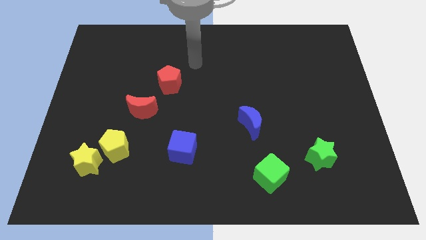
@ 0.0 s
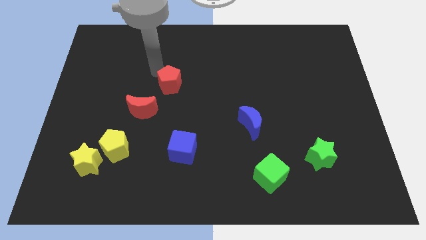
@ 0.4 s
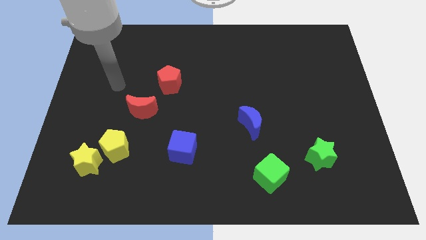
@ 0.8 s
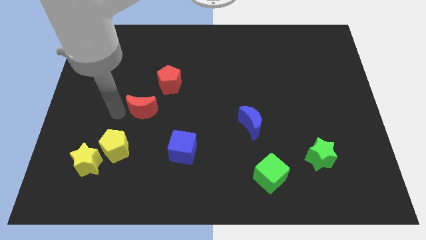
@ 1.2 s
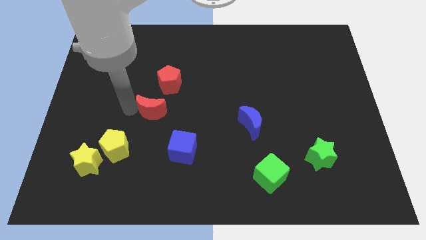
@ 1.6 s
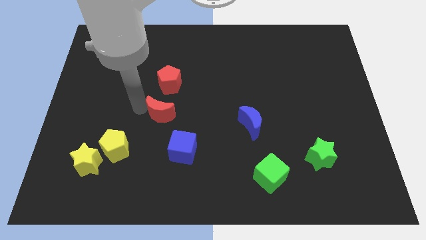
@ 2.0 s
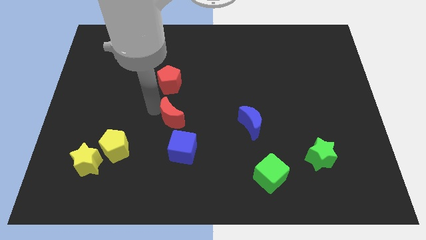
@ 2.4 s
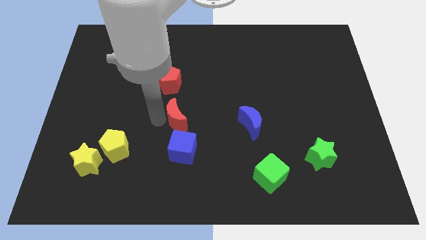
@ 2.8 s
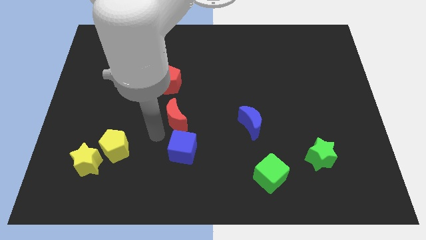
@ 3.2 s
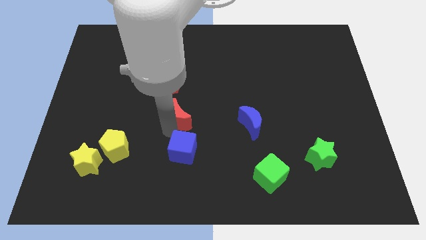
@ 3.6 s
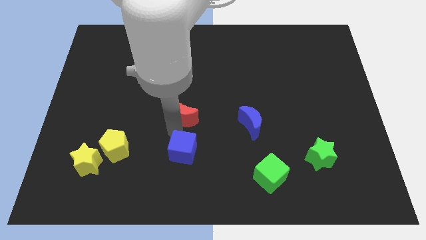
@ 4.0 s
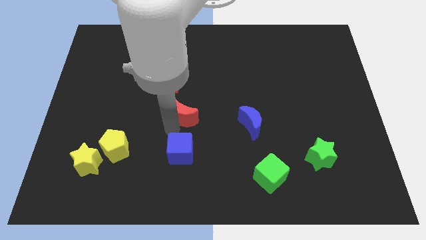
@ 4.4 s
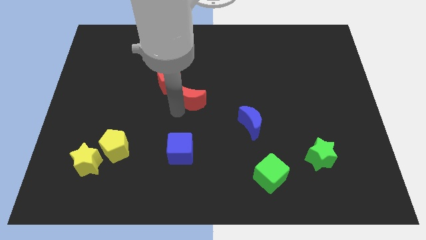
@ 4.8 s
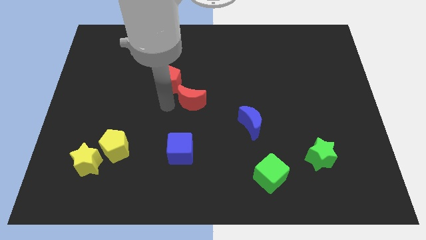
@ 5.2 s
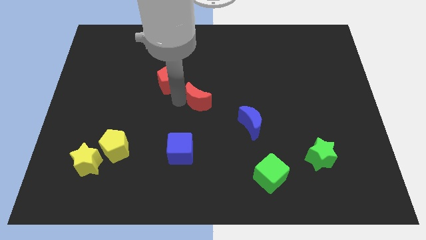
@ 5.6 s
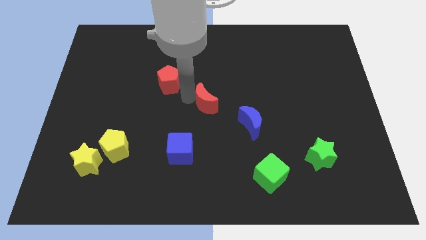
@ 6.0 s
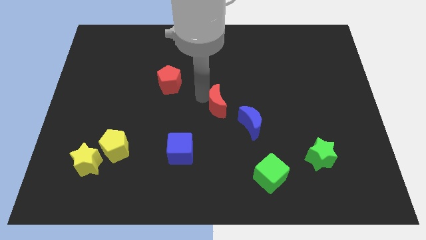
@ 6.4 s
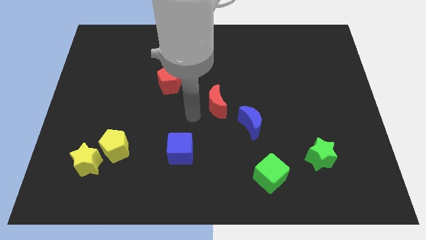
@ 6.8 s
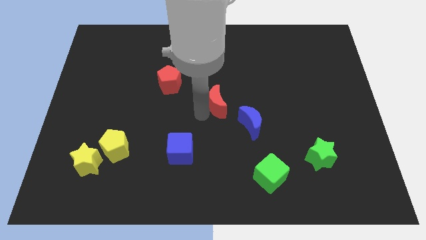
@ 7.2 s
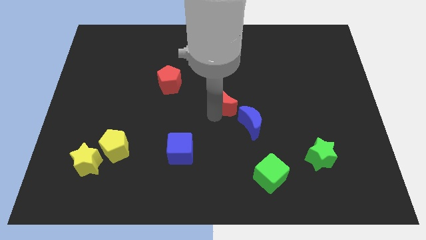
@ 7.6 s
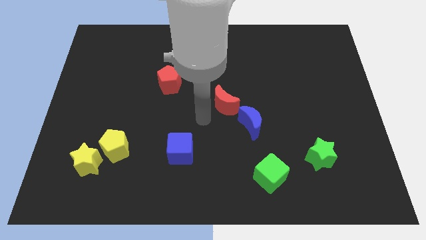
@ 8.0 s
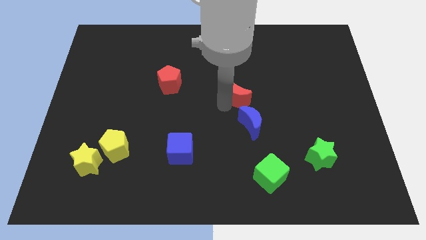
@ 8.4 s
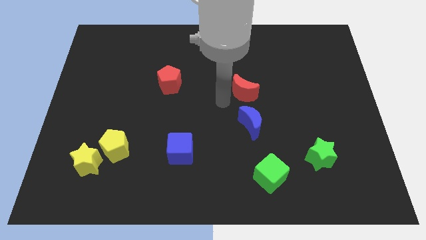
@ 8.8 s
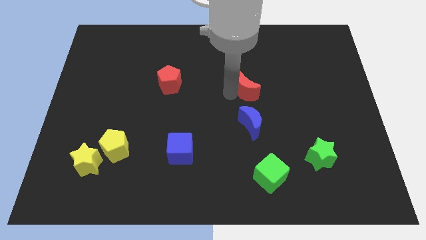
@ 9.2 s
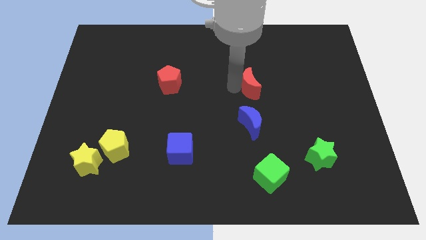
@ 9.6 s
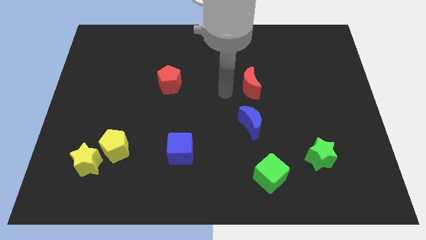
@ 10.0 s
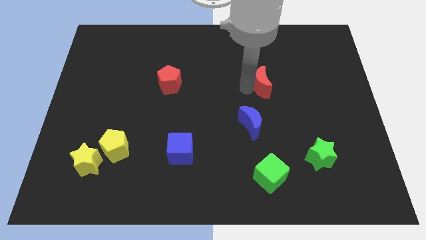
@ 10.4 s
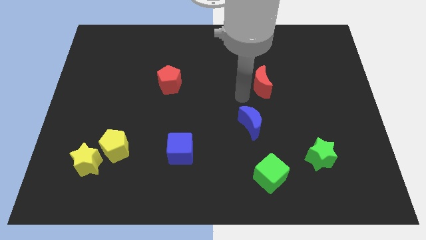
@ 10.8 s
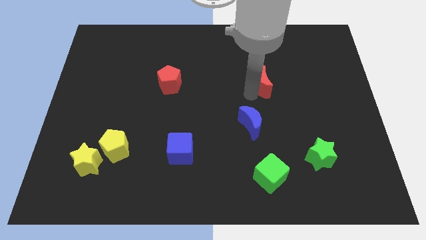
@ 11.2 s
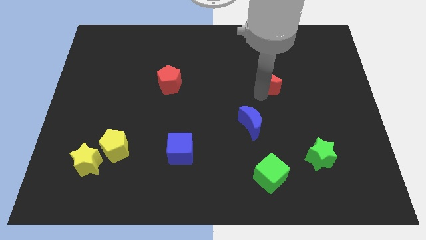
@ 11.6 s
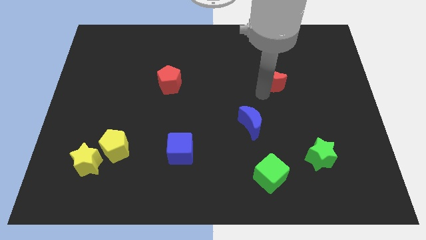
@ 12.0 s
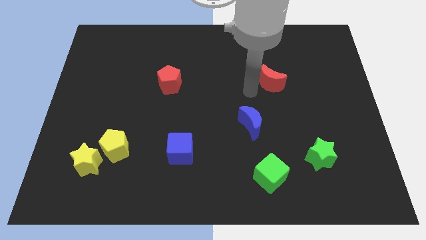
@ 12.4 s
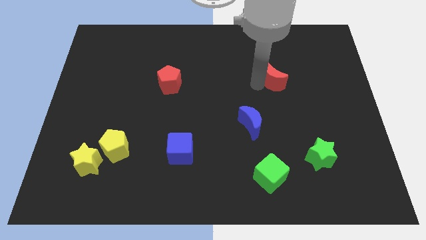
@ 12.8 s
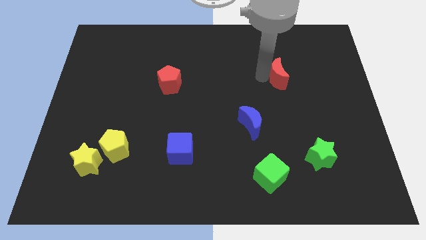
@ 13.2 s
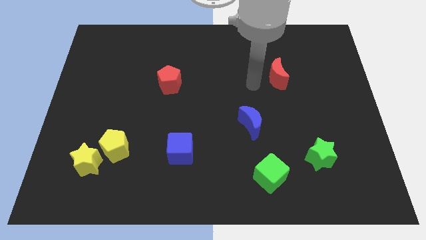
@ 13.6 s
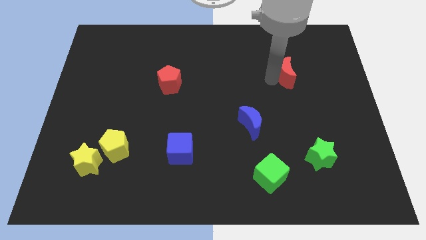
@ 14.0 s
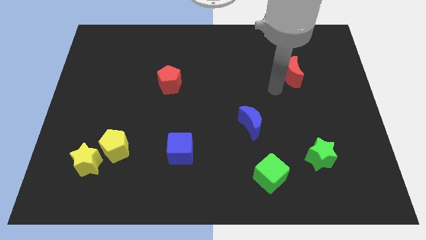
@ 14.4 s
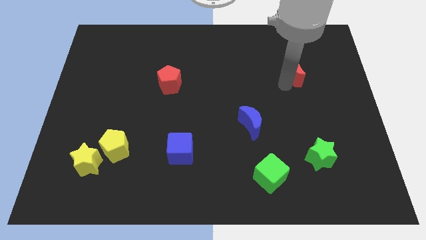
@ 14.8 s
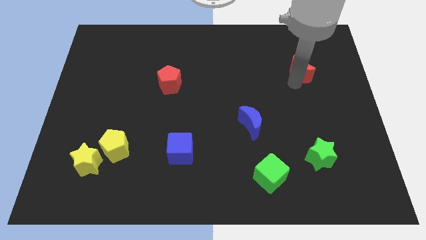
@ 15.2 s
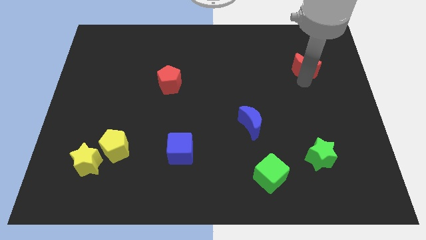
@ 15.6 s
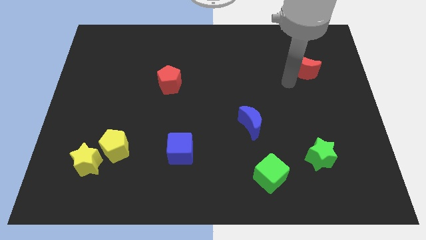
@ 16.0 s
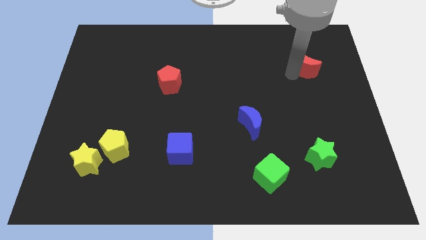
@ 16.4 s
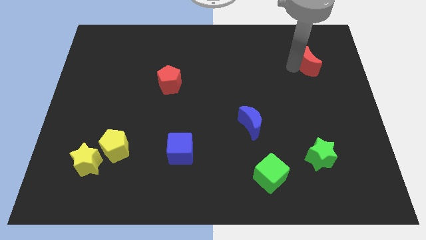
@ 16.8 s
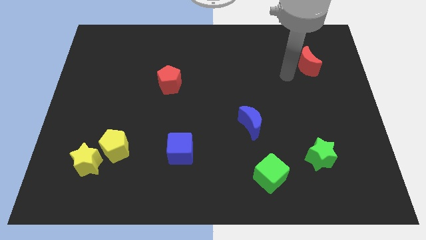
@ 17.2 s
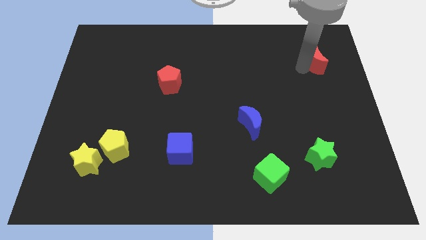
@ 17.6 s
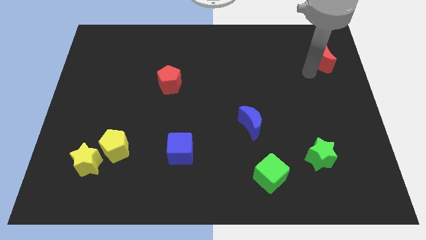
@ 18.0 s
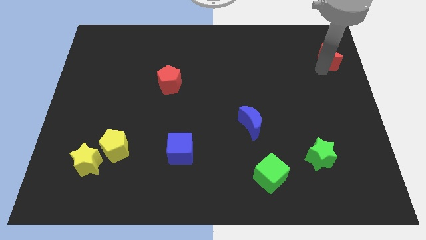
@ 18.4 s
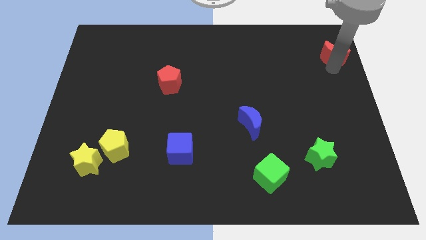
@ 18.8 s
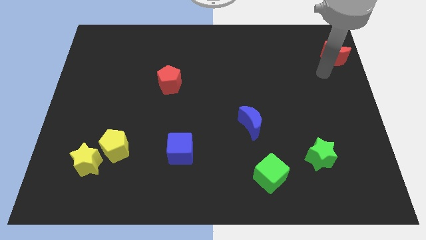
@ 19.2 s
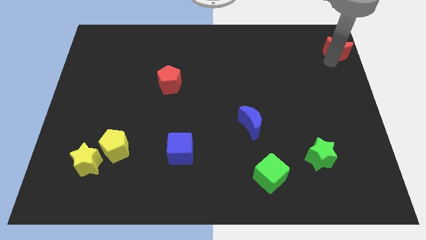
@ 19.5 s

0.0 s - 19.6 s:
push the red moon to the top right corner

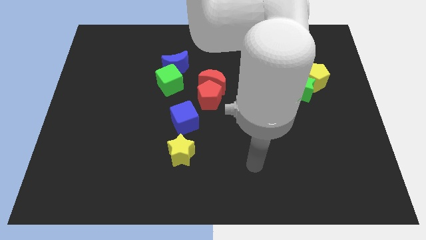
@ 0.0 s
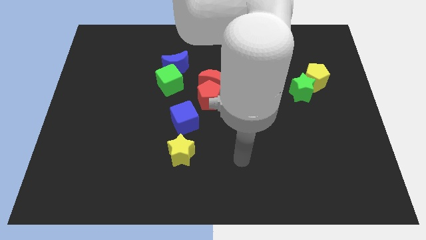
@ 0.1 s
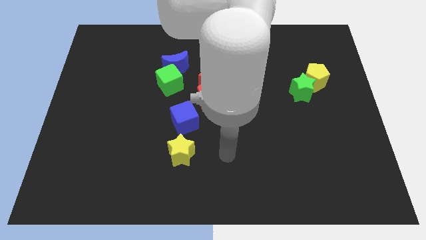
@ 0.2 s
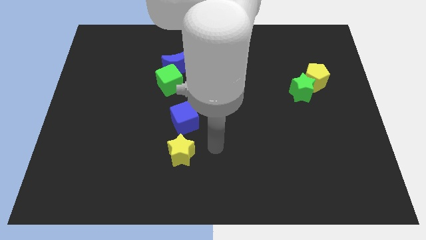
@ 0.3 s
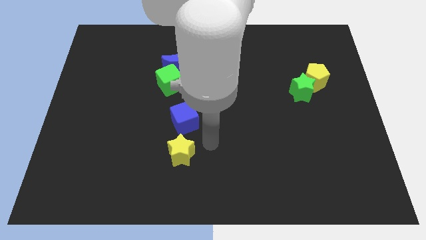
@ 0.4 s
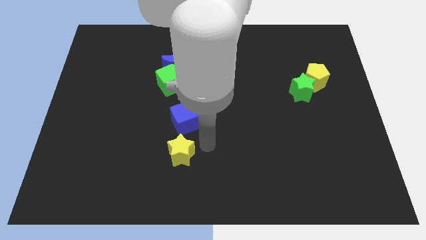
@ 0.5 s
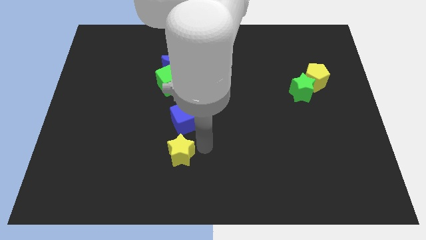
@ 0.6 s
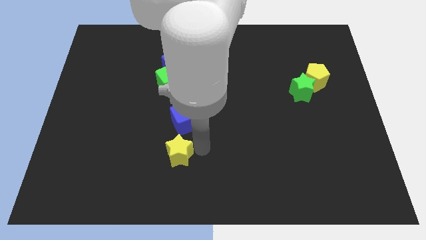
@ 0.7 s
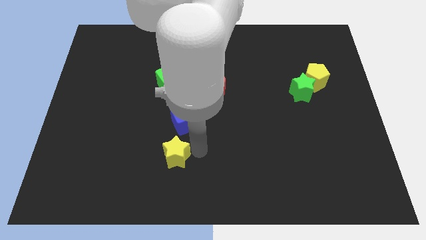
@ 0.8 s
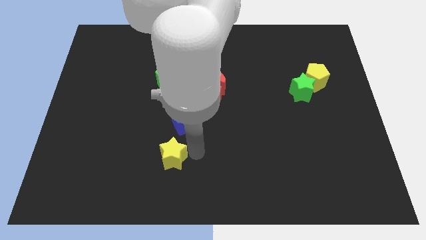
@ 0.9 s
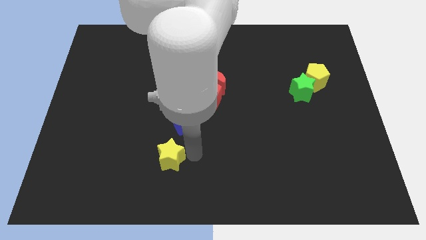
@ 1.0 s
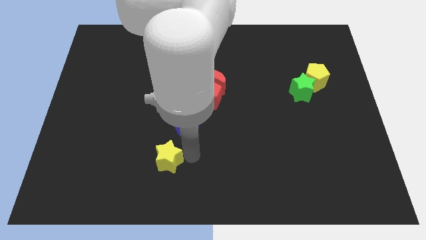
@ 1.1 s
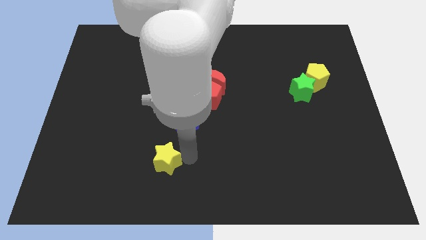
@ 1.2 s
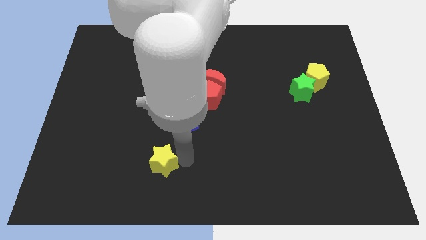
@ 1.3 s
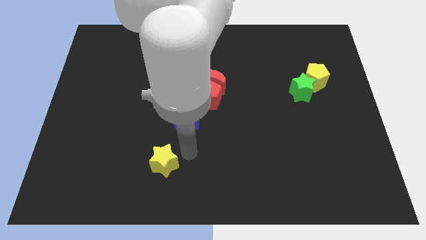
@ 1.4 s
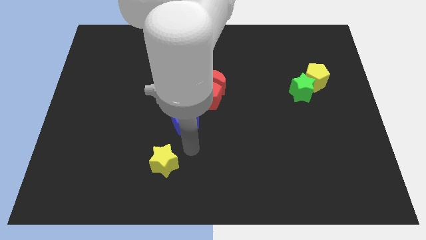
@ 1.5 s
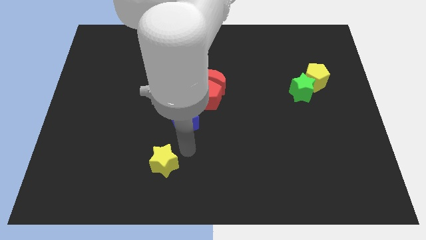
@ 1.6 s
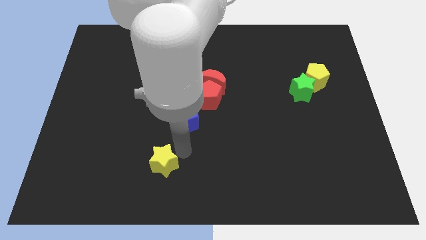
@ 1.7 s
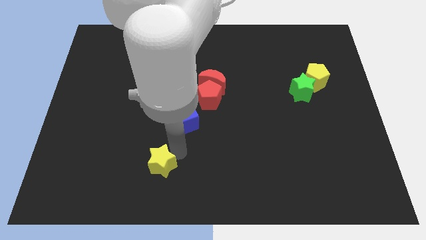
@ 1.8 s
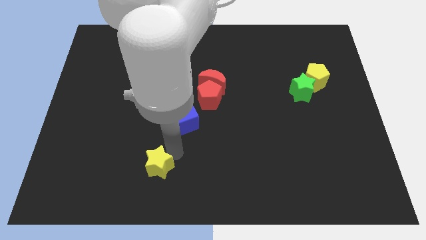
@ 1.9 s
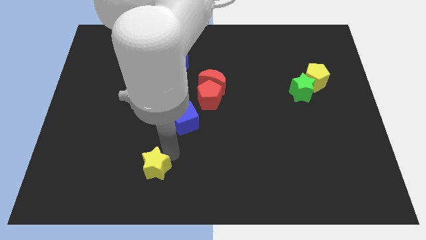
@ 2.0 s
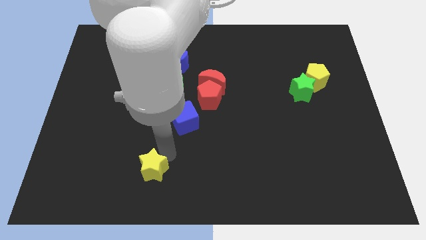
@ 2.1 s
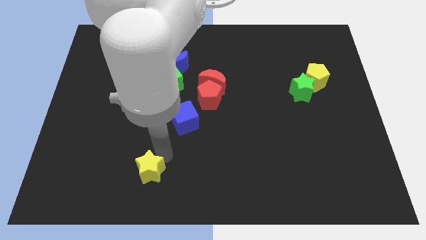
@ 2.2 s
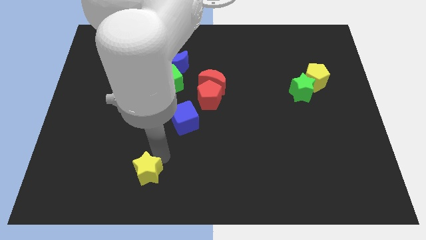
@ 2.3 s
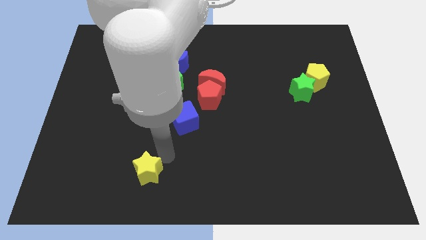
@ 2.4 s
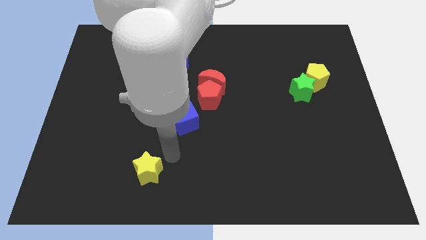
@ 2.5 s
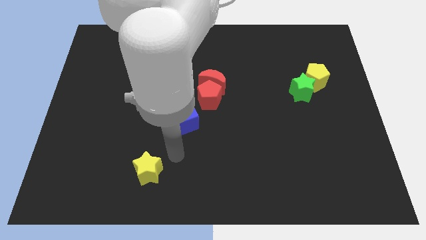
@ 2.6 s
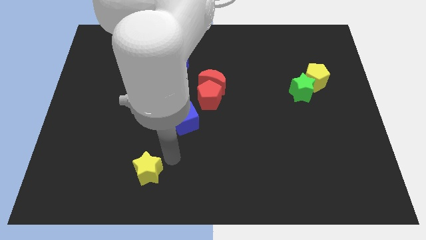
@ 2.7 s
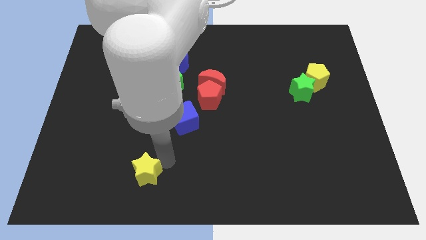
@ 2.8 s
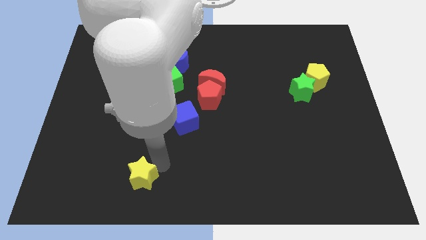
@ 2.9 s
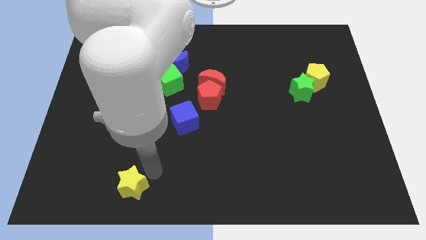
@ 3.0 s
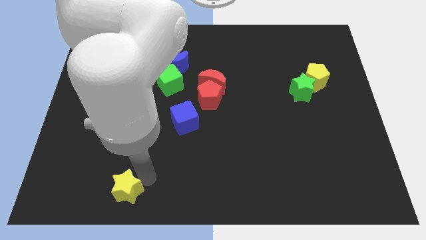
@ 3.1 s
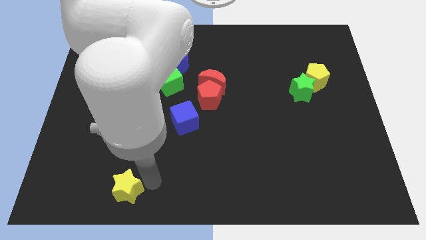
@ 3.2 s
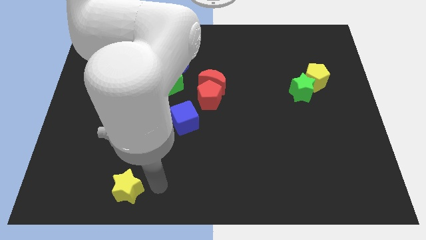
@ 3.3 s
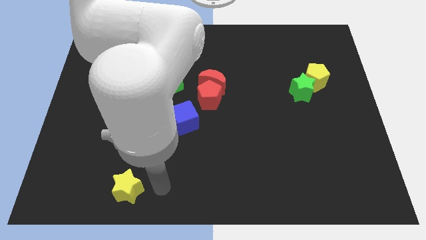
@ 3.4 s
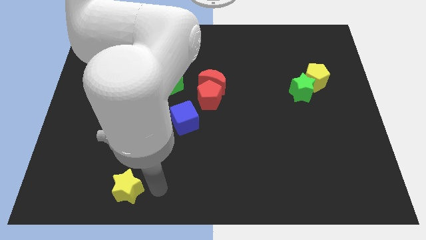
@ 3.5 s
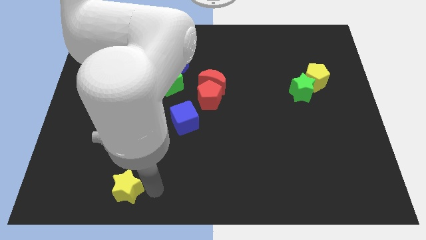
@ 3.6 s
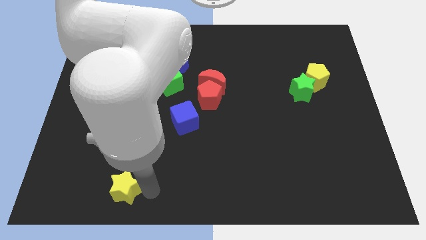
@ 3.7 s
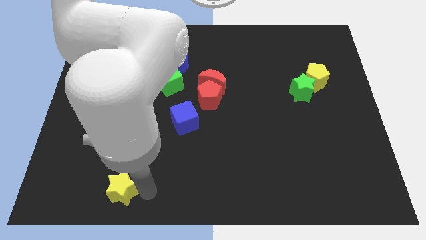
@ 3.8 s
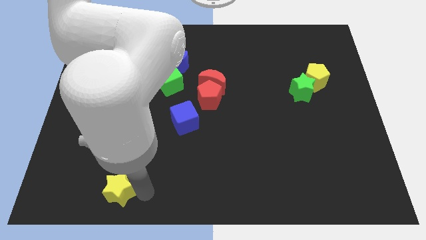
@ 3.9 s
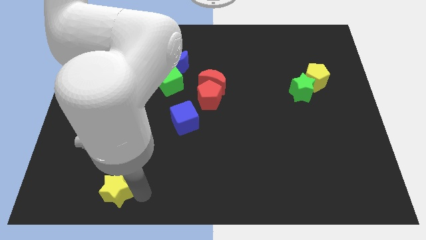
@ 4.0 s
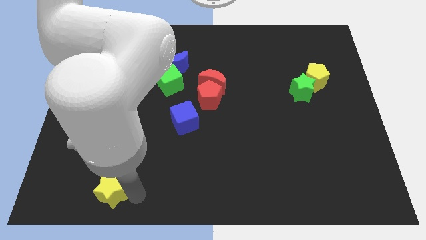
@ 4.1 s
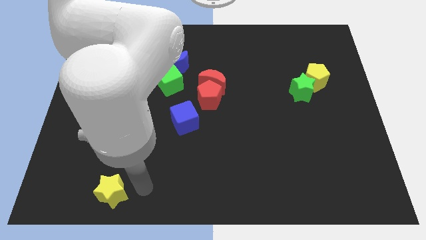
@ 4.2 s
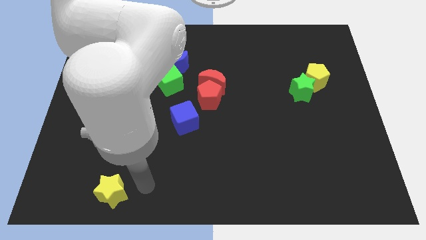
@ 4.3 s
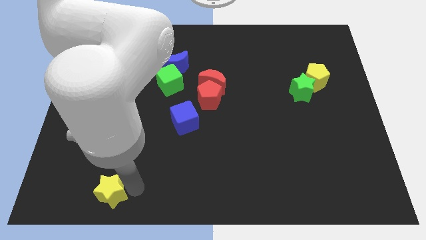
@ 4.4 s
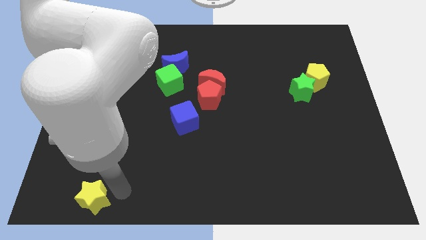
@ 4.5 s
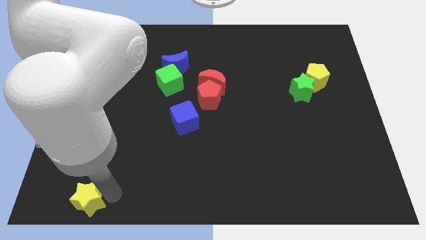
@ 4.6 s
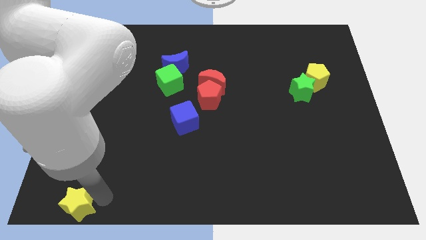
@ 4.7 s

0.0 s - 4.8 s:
move the yellow star to the bottom left of the board
